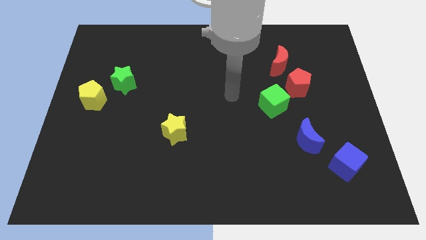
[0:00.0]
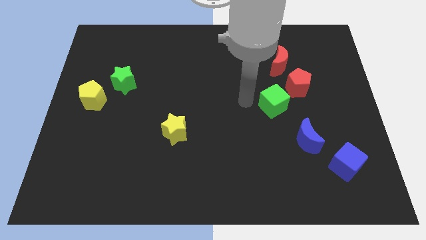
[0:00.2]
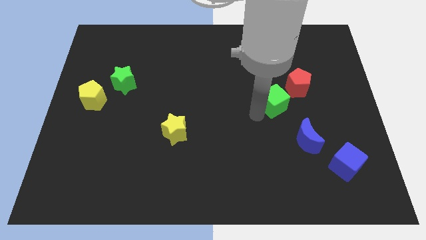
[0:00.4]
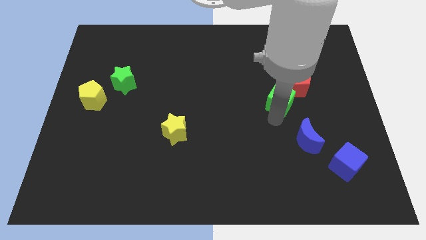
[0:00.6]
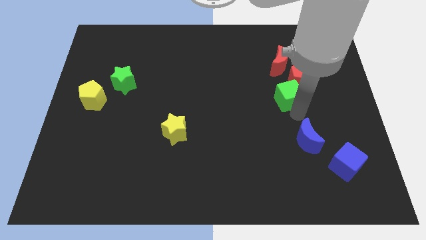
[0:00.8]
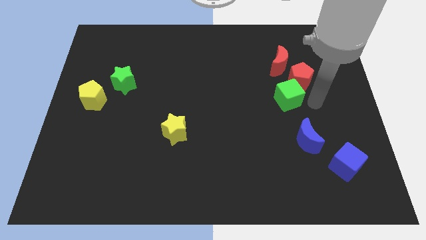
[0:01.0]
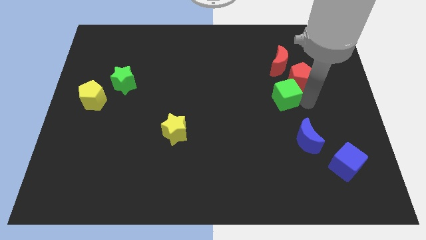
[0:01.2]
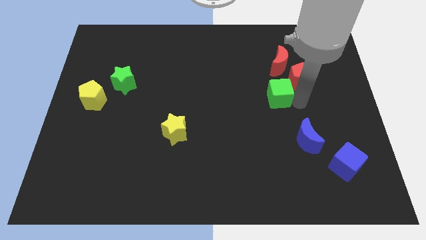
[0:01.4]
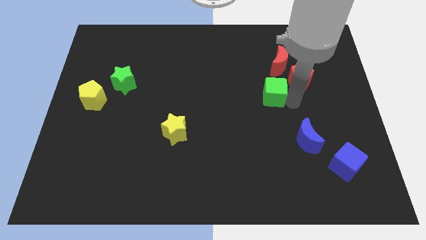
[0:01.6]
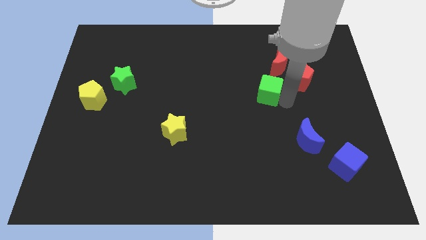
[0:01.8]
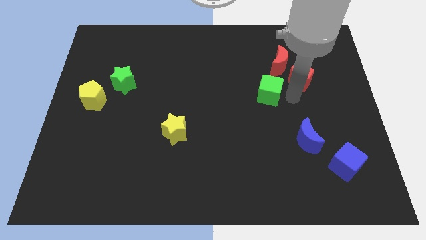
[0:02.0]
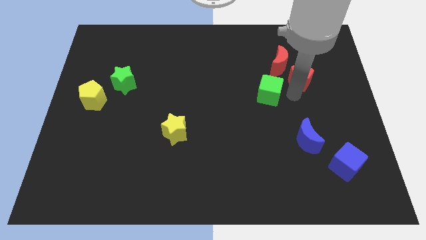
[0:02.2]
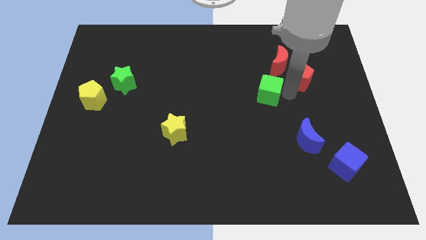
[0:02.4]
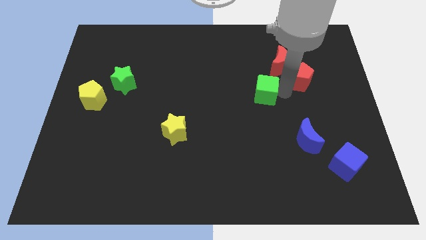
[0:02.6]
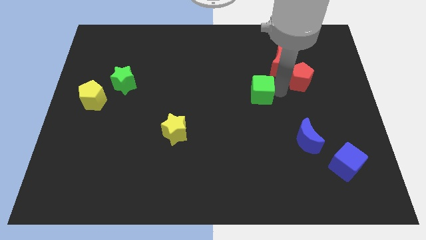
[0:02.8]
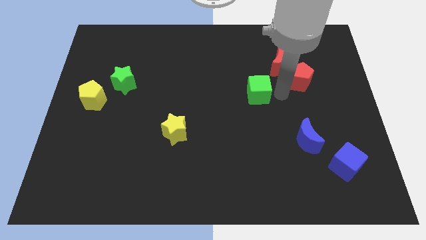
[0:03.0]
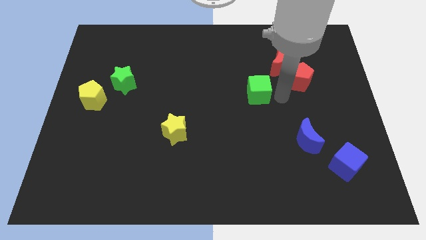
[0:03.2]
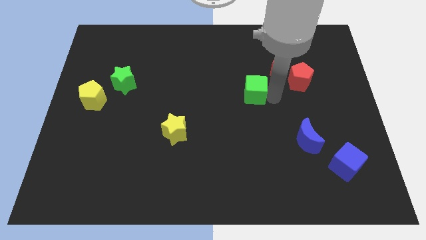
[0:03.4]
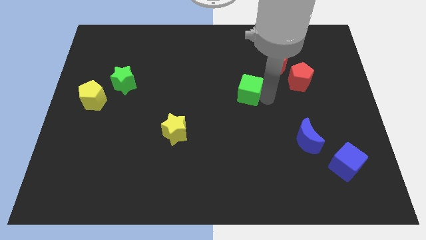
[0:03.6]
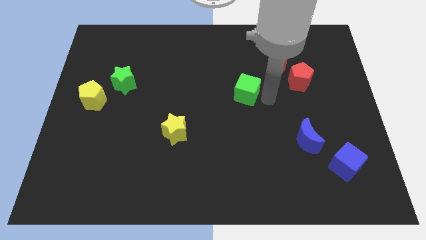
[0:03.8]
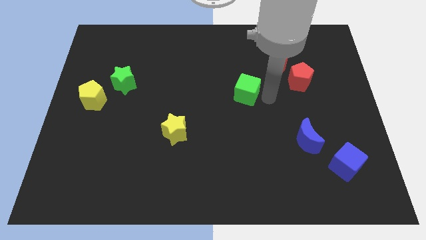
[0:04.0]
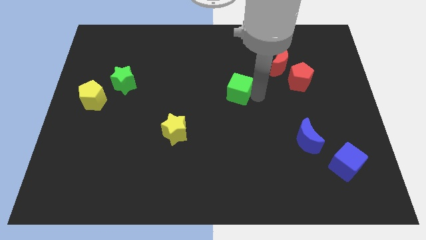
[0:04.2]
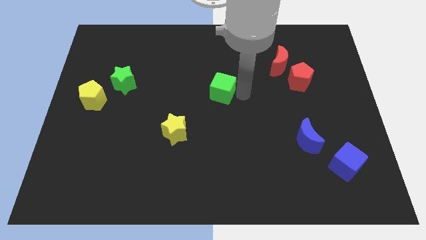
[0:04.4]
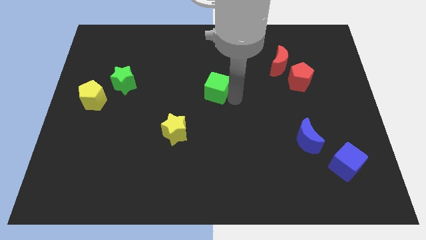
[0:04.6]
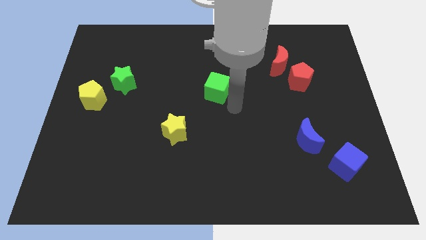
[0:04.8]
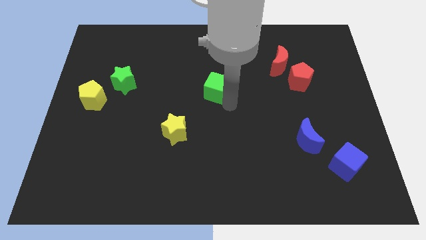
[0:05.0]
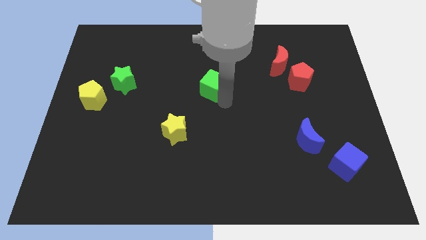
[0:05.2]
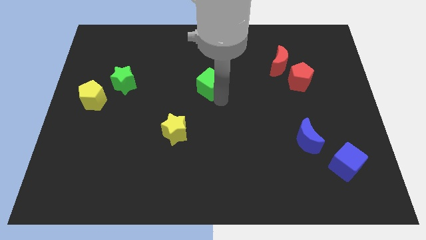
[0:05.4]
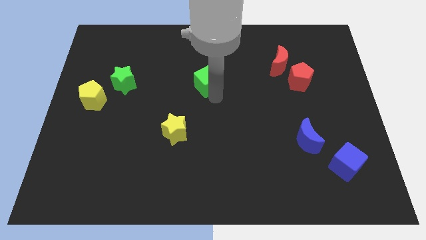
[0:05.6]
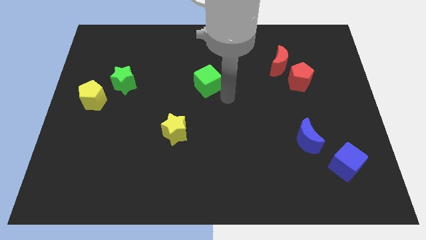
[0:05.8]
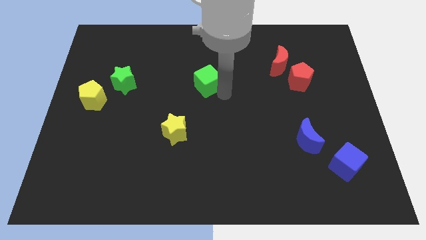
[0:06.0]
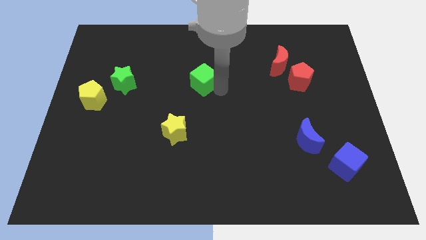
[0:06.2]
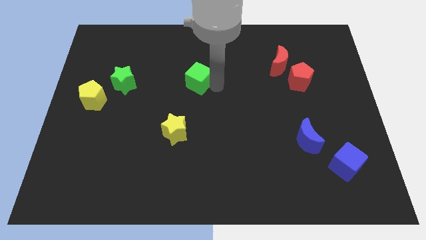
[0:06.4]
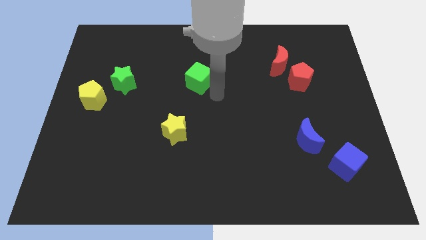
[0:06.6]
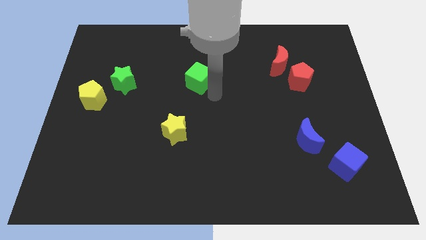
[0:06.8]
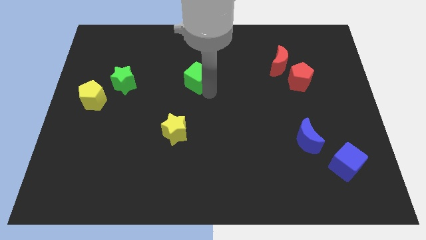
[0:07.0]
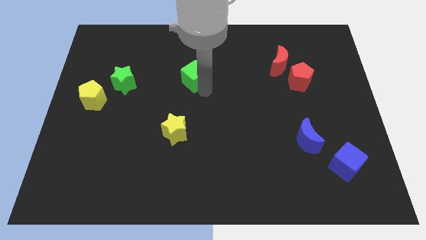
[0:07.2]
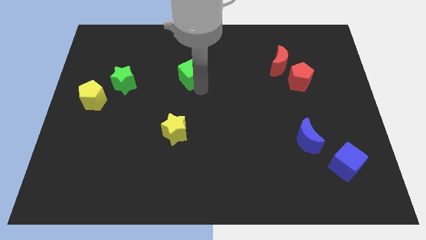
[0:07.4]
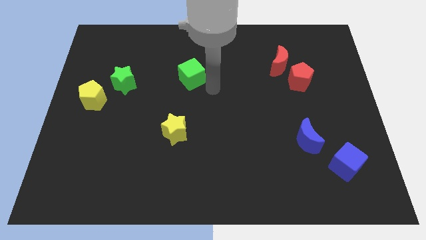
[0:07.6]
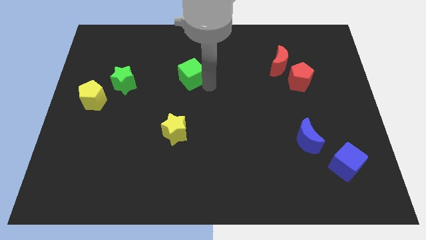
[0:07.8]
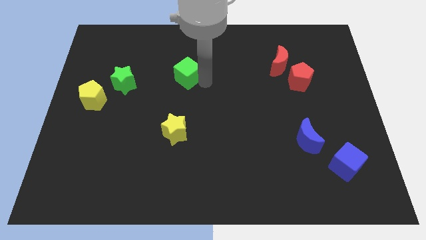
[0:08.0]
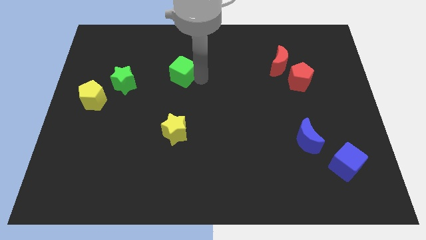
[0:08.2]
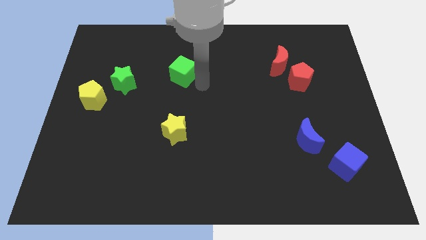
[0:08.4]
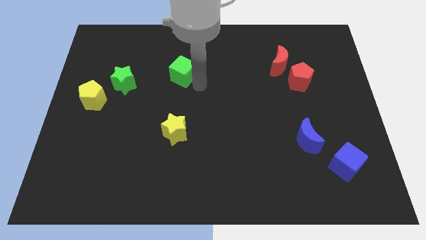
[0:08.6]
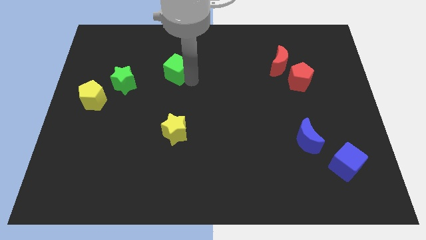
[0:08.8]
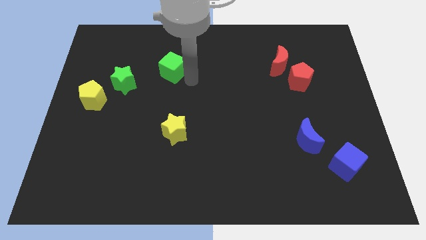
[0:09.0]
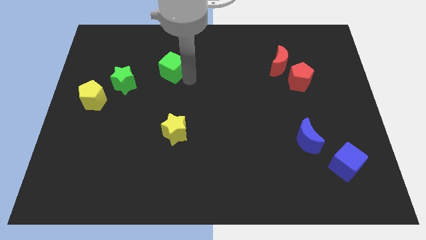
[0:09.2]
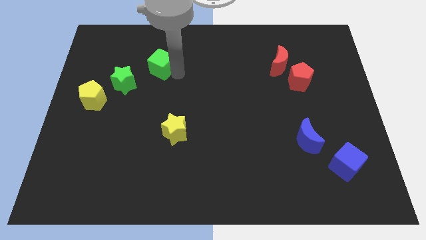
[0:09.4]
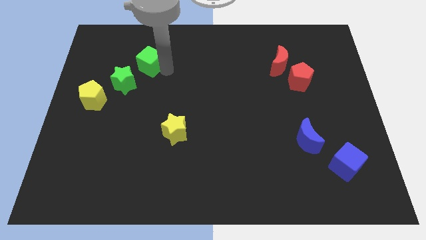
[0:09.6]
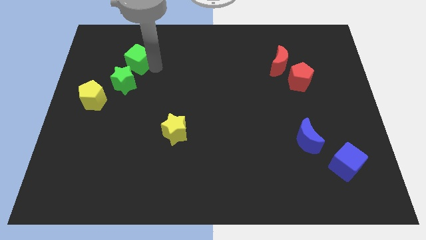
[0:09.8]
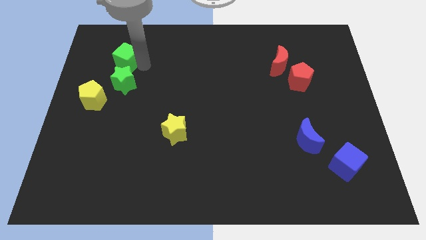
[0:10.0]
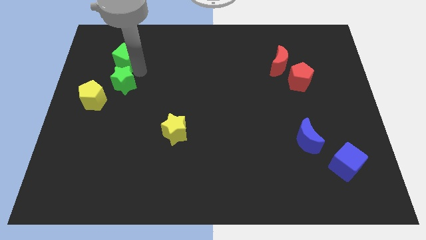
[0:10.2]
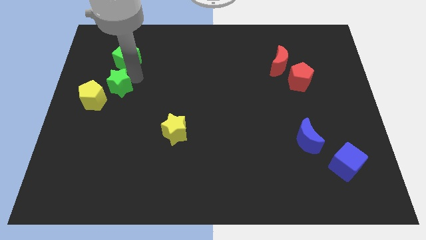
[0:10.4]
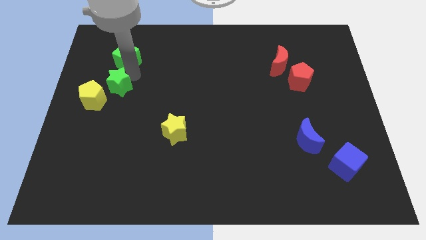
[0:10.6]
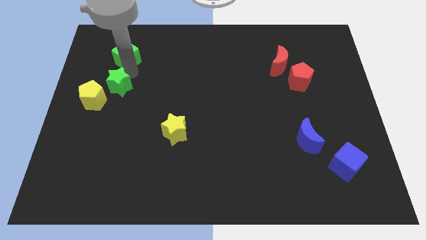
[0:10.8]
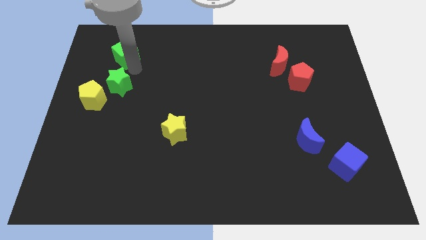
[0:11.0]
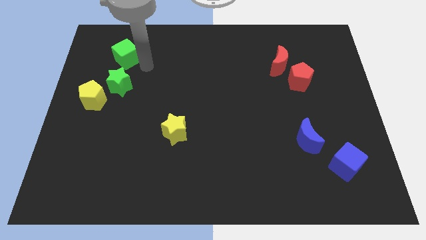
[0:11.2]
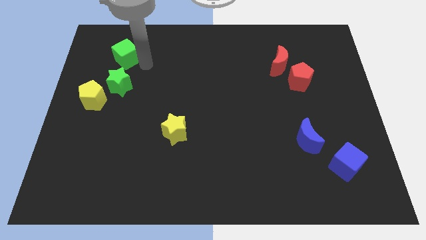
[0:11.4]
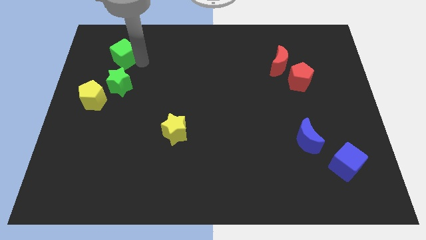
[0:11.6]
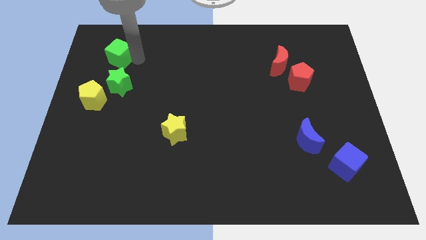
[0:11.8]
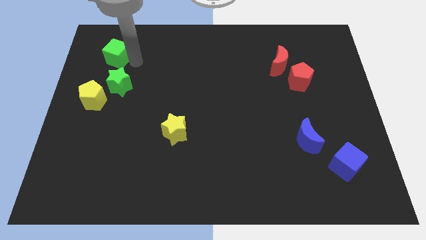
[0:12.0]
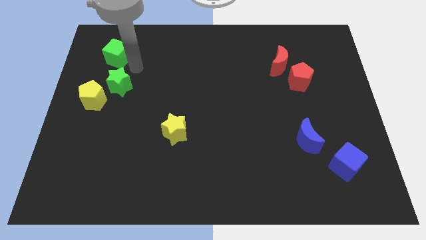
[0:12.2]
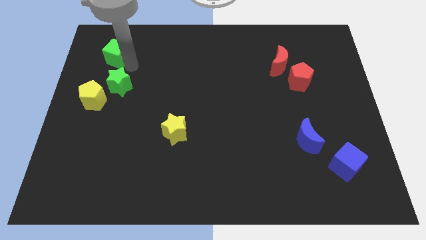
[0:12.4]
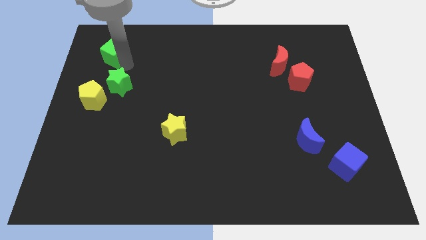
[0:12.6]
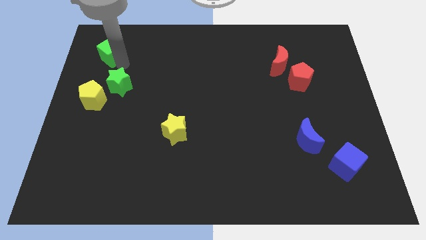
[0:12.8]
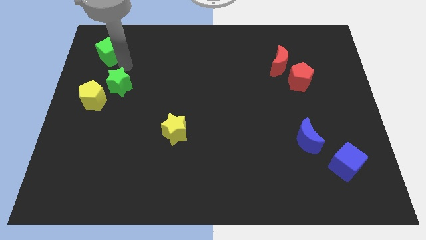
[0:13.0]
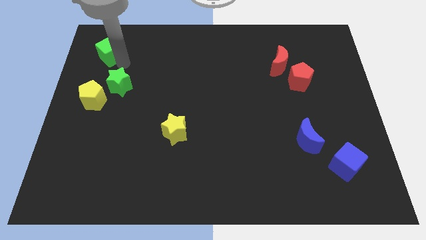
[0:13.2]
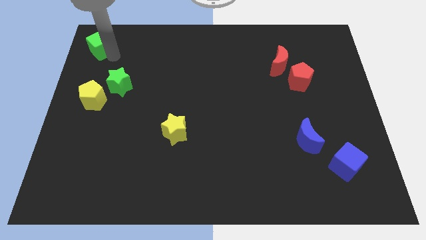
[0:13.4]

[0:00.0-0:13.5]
slide the green cube to the top left of the board
